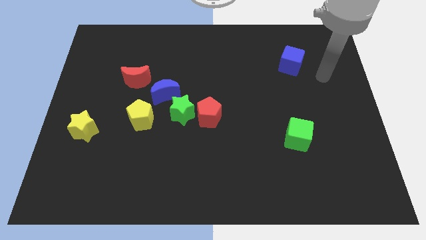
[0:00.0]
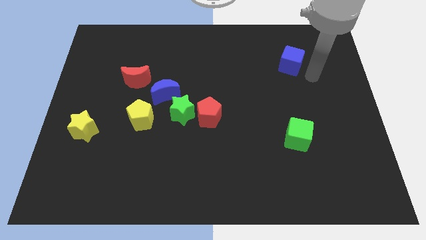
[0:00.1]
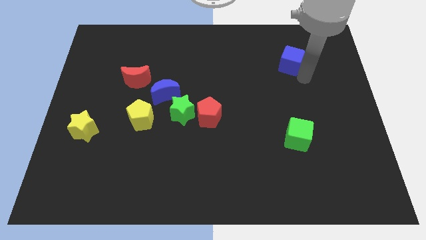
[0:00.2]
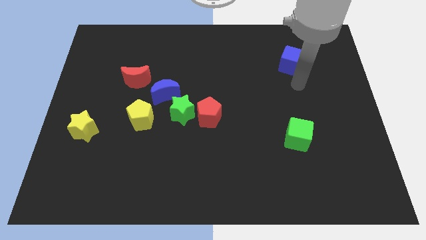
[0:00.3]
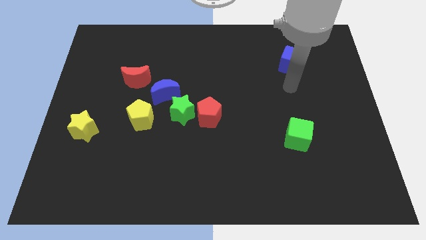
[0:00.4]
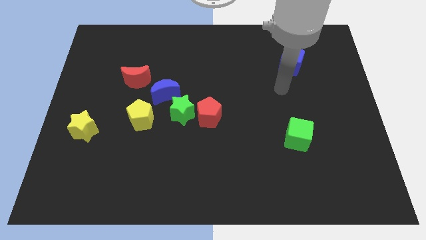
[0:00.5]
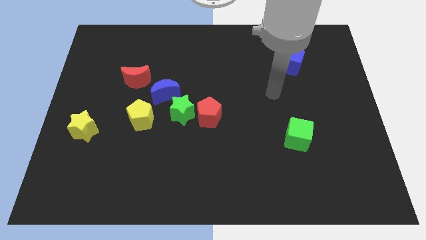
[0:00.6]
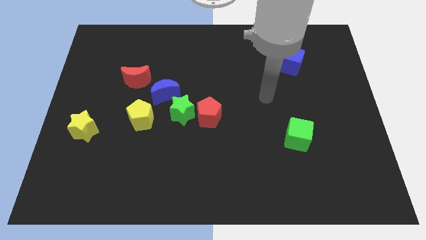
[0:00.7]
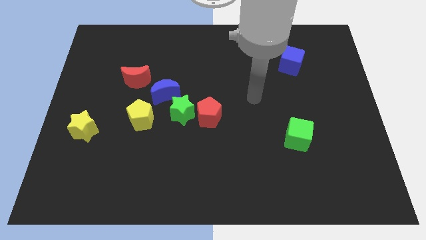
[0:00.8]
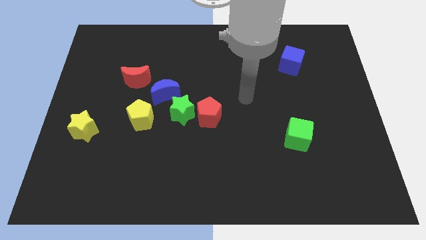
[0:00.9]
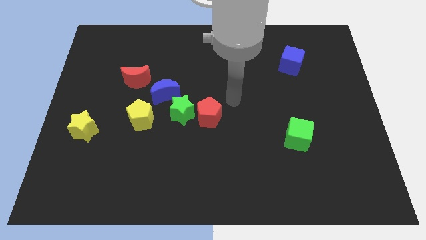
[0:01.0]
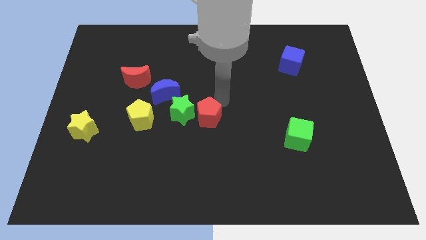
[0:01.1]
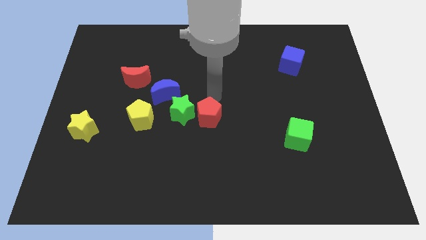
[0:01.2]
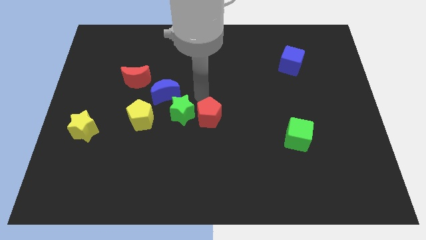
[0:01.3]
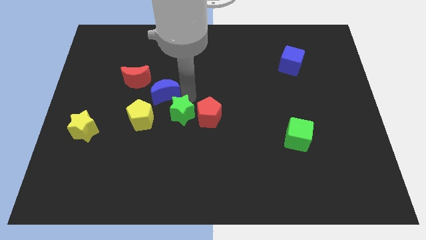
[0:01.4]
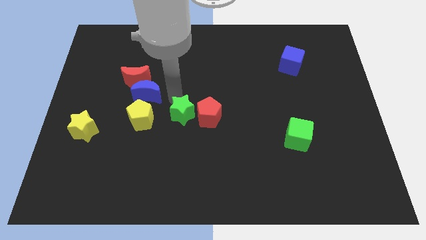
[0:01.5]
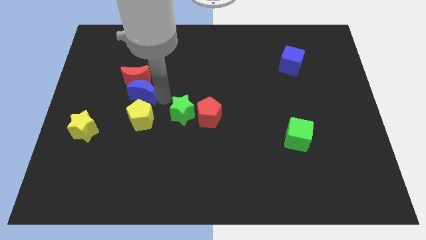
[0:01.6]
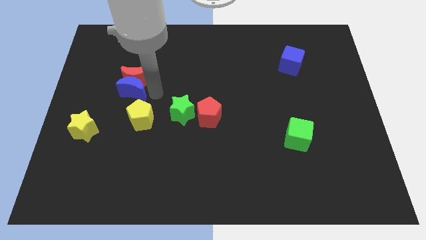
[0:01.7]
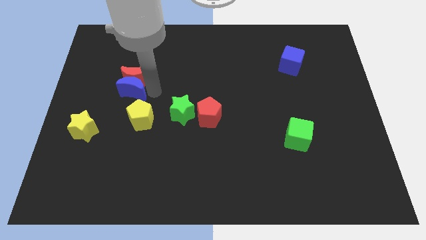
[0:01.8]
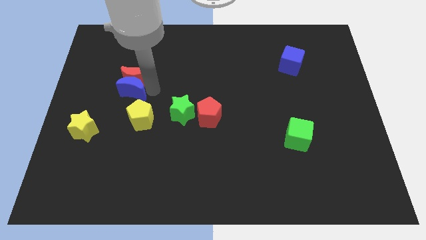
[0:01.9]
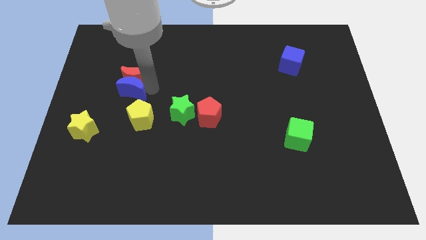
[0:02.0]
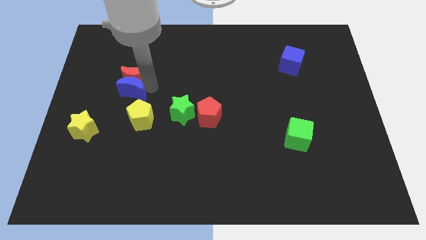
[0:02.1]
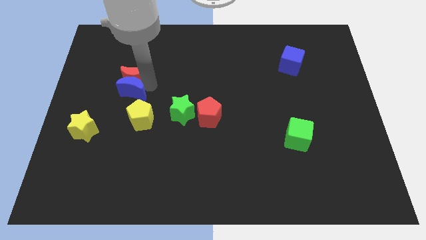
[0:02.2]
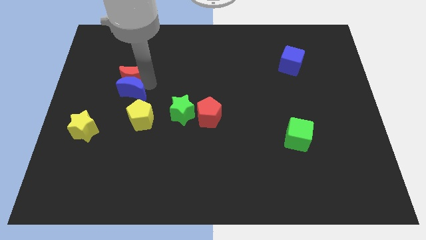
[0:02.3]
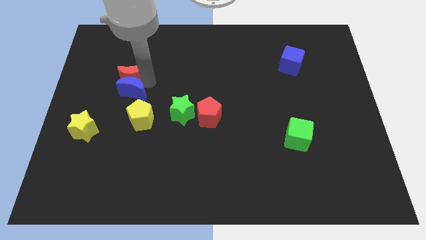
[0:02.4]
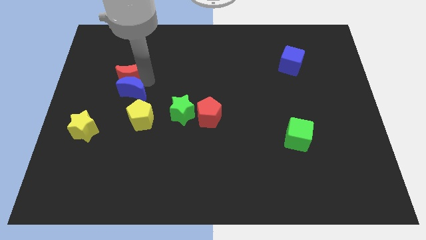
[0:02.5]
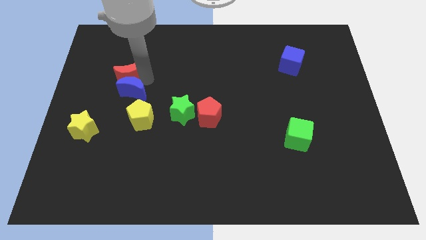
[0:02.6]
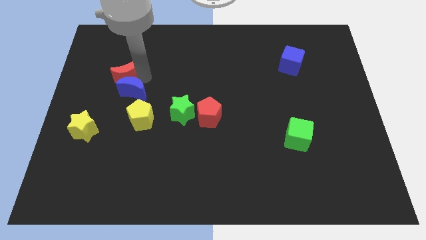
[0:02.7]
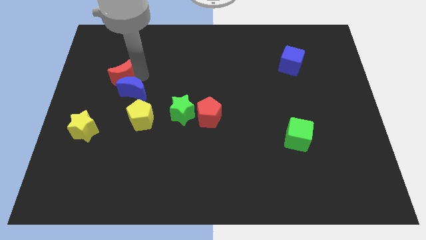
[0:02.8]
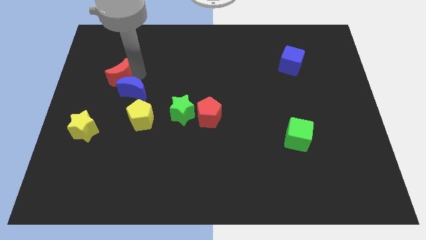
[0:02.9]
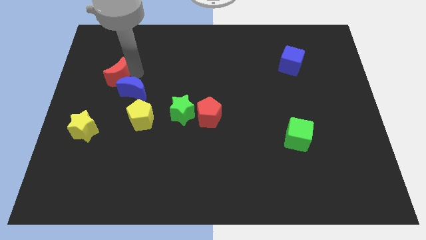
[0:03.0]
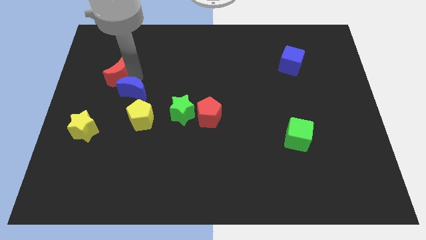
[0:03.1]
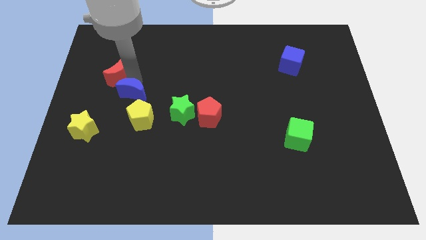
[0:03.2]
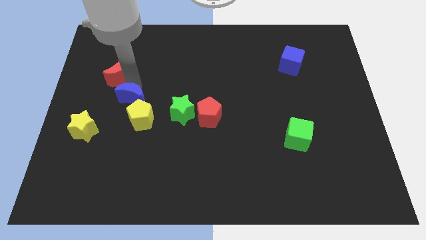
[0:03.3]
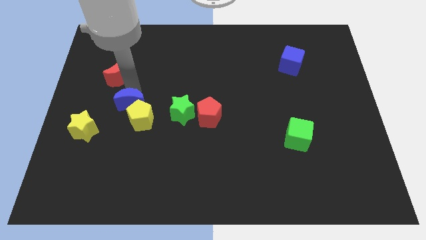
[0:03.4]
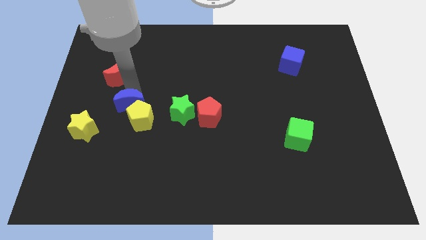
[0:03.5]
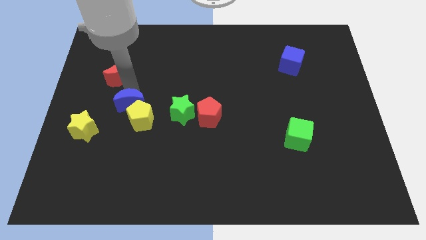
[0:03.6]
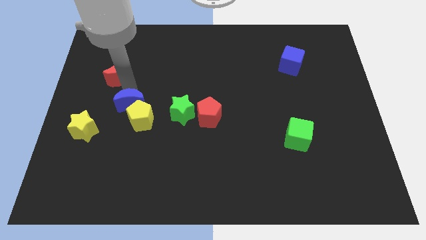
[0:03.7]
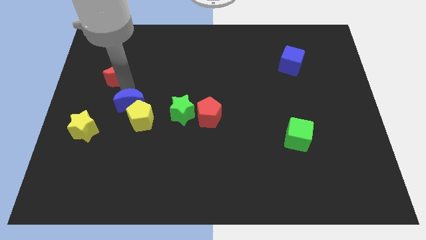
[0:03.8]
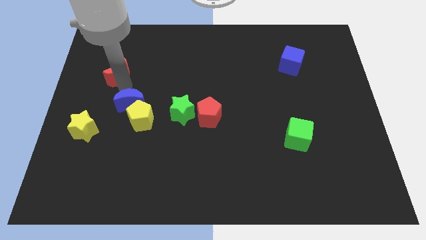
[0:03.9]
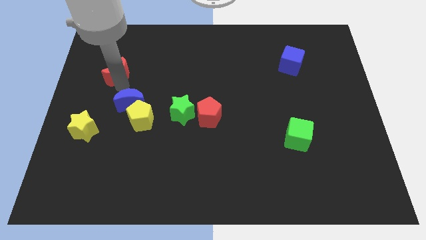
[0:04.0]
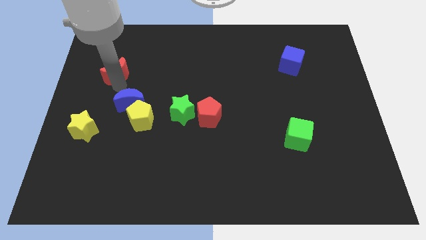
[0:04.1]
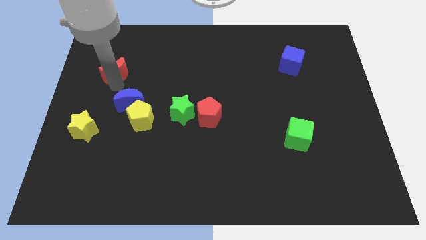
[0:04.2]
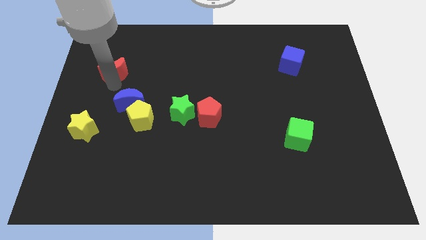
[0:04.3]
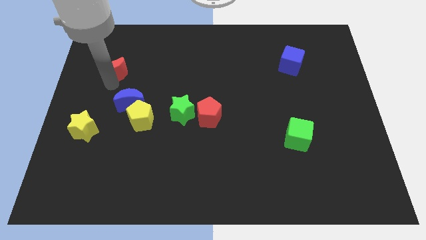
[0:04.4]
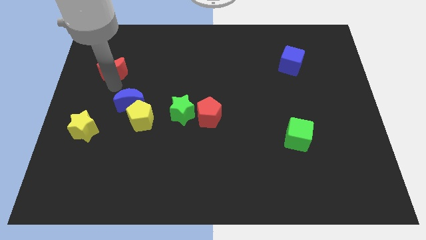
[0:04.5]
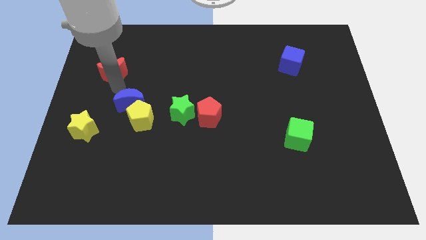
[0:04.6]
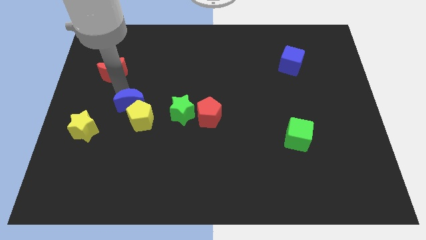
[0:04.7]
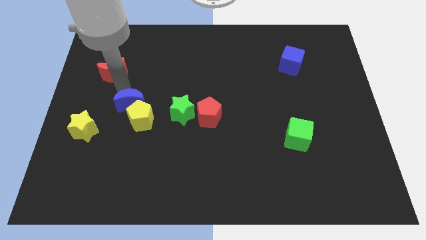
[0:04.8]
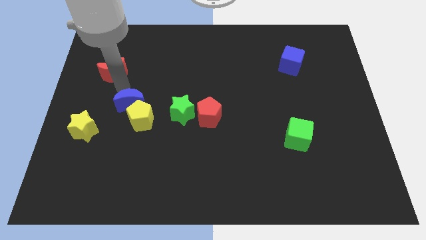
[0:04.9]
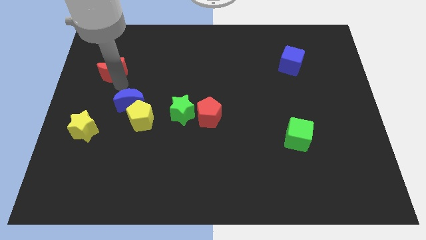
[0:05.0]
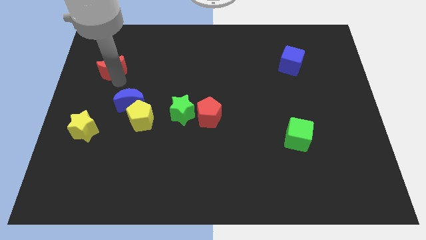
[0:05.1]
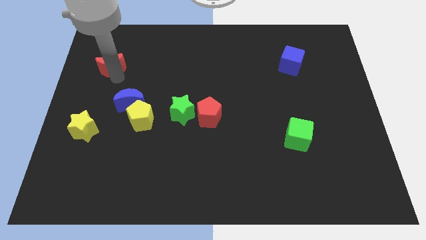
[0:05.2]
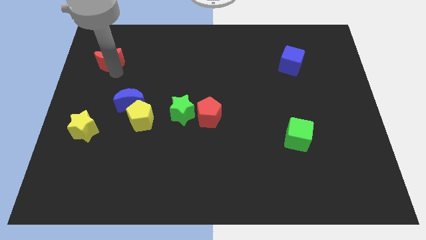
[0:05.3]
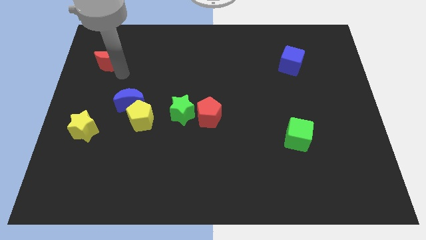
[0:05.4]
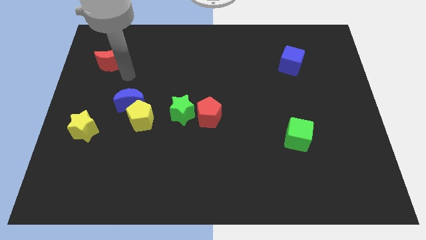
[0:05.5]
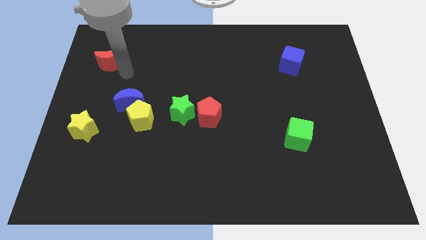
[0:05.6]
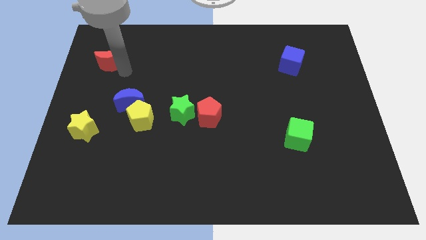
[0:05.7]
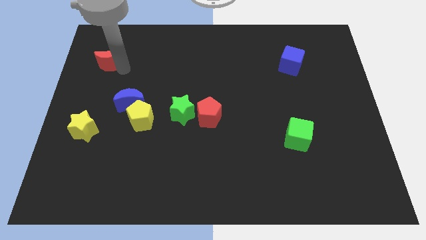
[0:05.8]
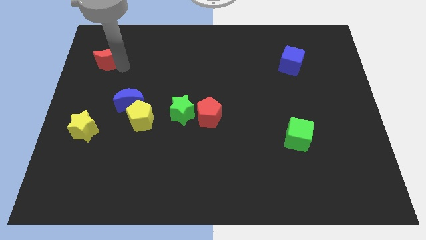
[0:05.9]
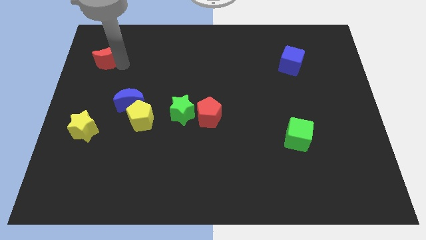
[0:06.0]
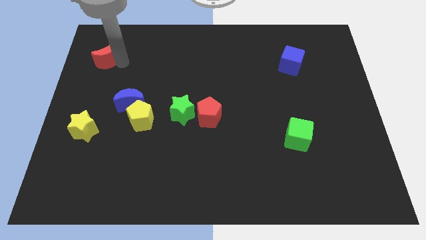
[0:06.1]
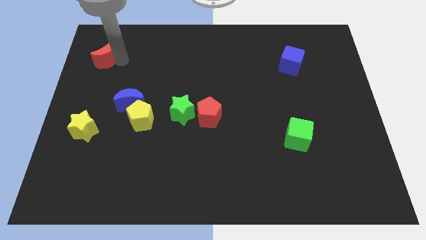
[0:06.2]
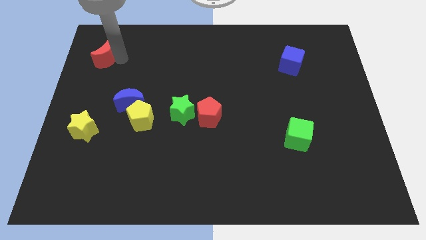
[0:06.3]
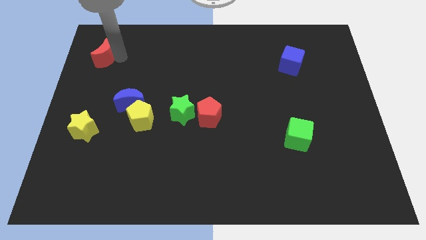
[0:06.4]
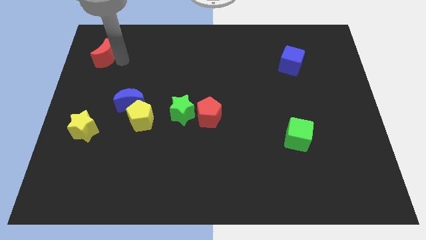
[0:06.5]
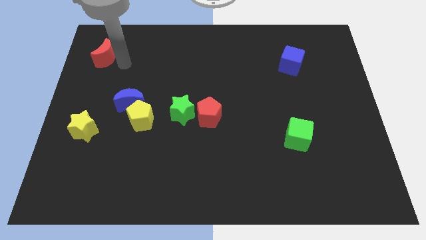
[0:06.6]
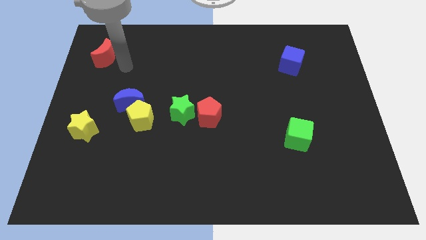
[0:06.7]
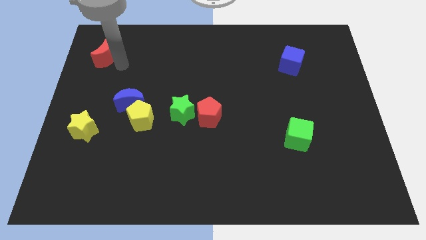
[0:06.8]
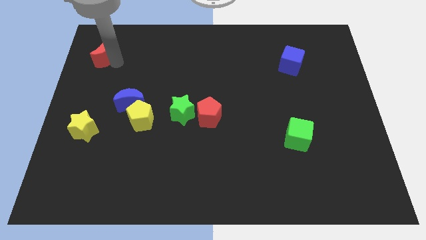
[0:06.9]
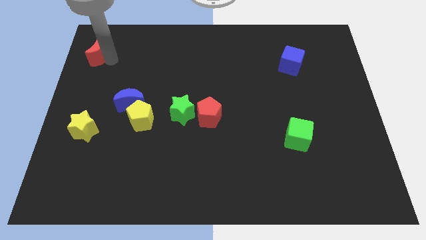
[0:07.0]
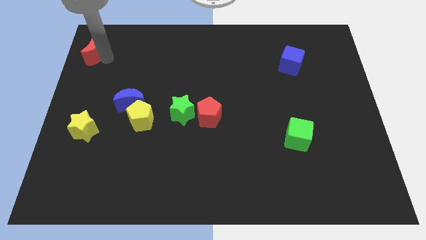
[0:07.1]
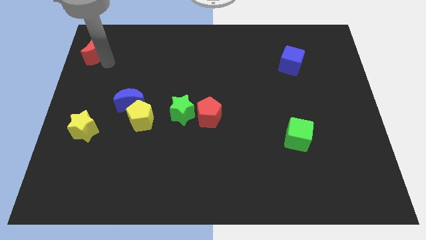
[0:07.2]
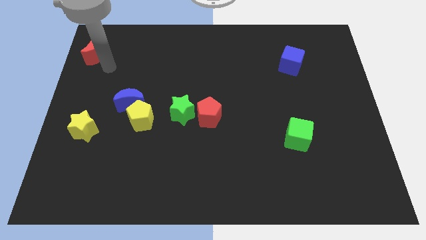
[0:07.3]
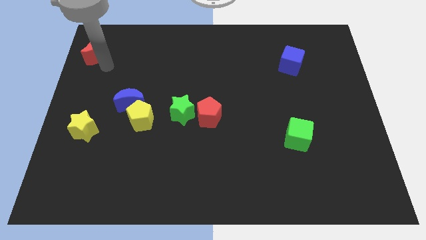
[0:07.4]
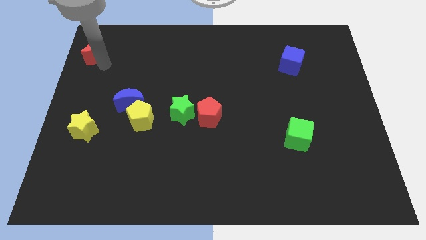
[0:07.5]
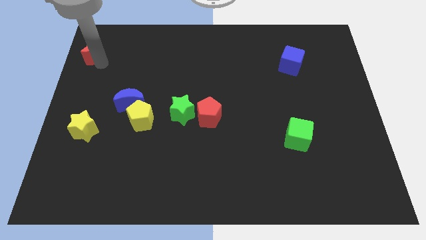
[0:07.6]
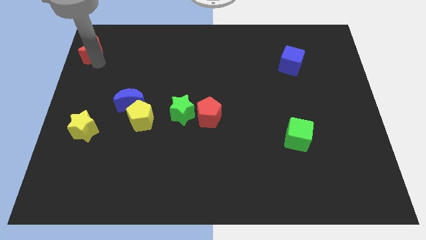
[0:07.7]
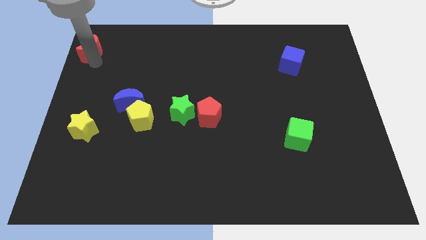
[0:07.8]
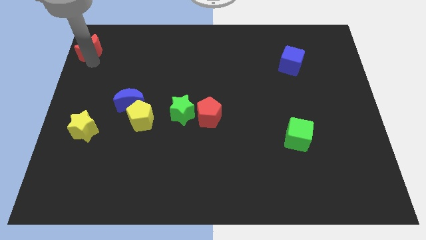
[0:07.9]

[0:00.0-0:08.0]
slide the red moon to the top left of the board
